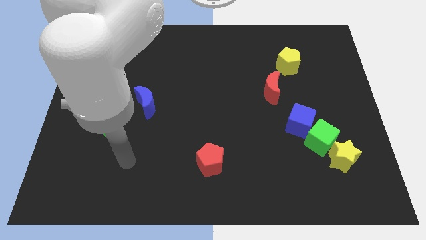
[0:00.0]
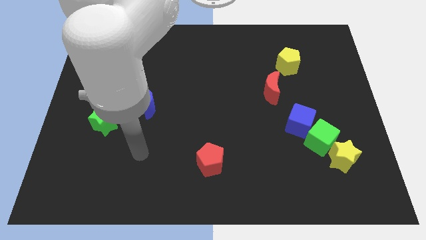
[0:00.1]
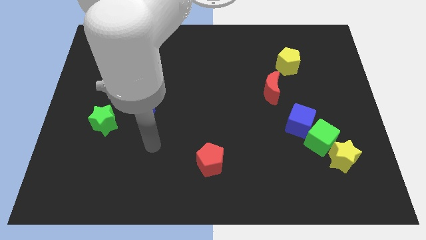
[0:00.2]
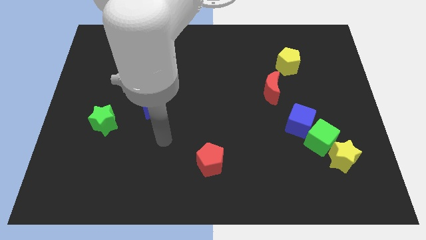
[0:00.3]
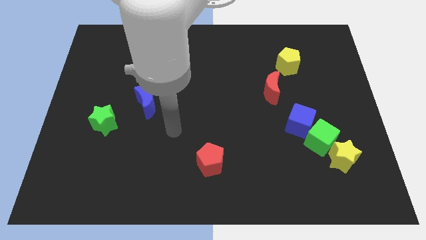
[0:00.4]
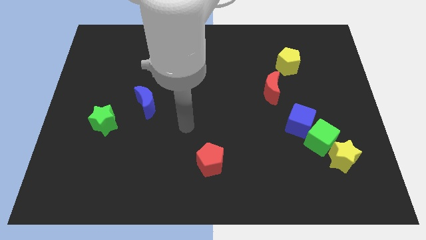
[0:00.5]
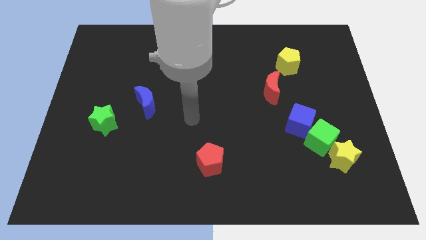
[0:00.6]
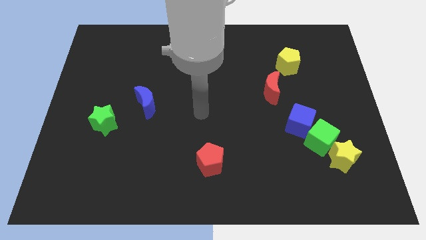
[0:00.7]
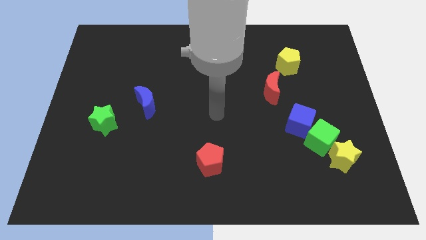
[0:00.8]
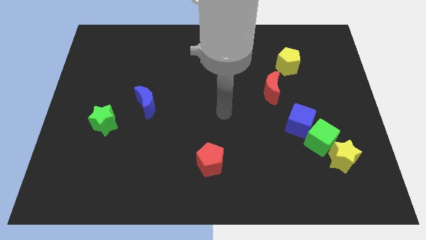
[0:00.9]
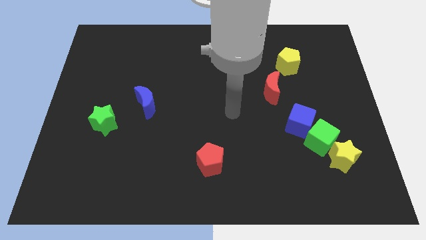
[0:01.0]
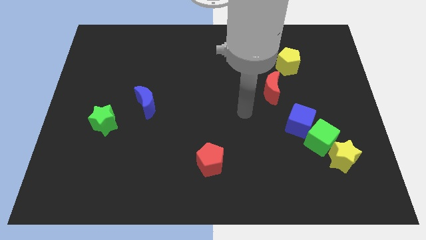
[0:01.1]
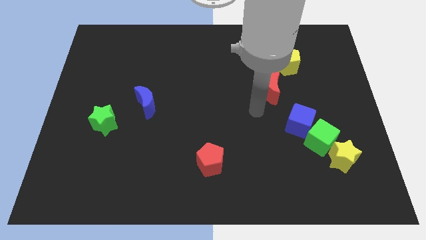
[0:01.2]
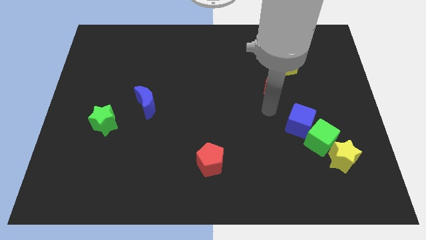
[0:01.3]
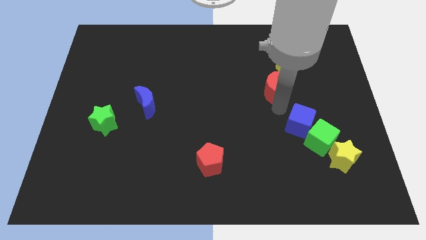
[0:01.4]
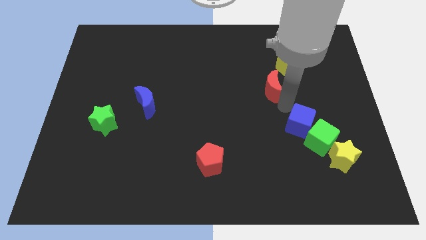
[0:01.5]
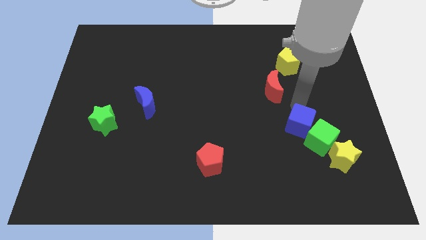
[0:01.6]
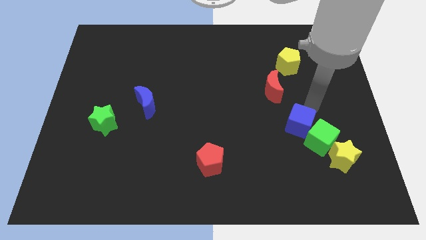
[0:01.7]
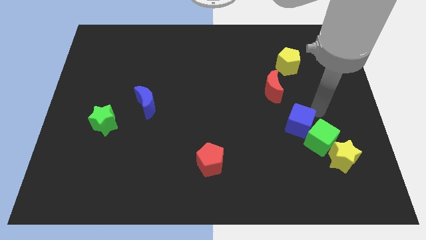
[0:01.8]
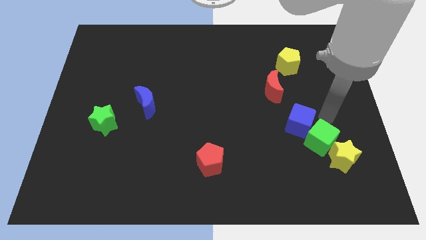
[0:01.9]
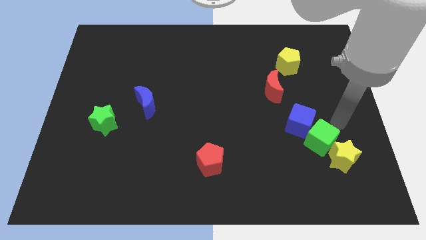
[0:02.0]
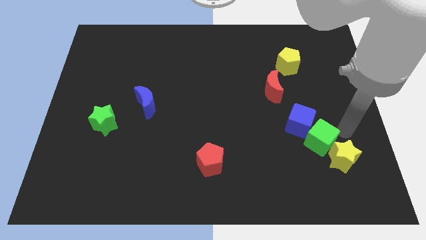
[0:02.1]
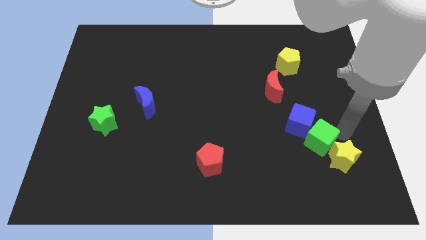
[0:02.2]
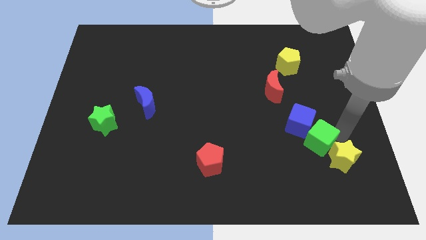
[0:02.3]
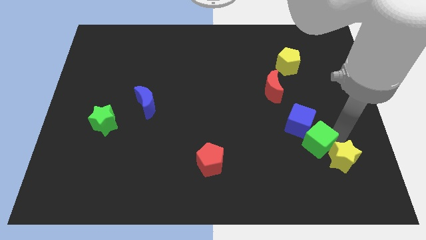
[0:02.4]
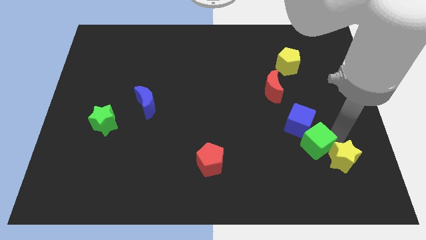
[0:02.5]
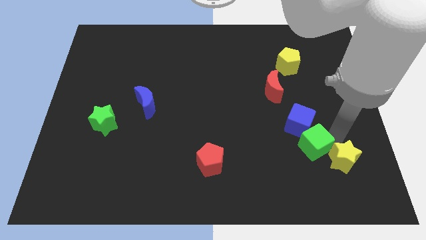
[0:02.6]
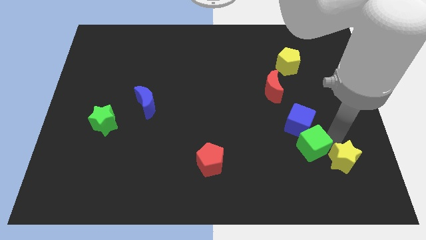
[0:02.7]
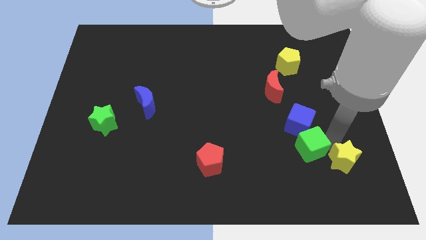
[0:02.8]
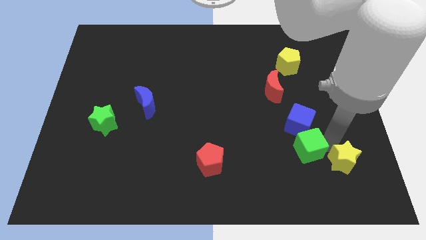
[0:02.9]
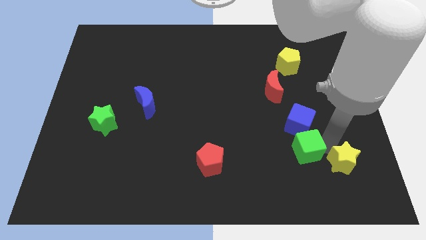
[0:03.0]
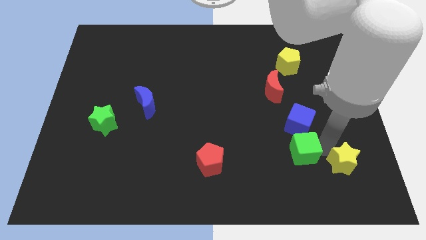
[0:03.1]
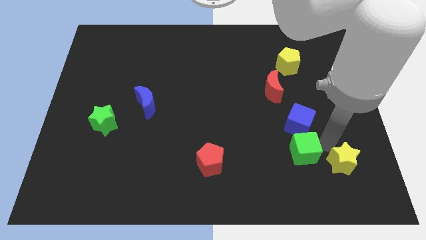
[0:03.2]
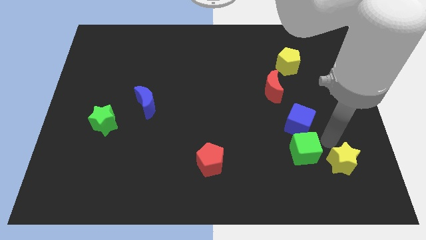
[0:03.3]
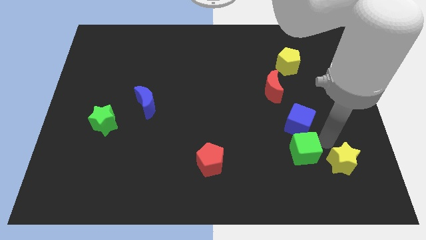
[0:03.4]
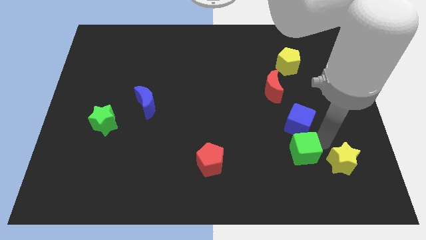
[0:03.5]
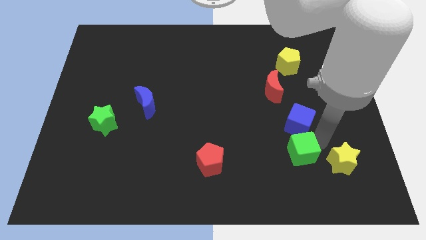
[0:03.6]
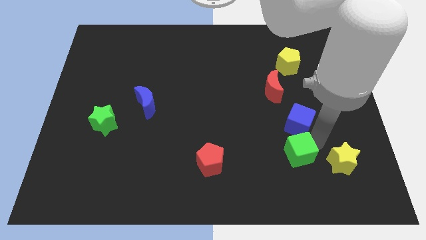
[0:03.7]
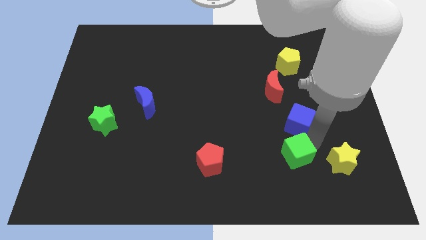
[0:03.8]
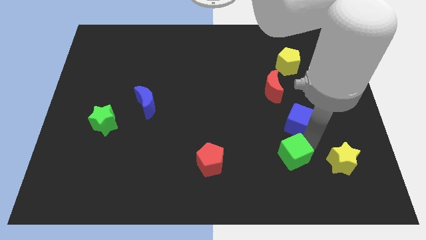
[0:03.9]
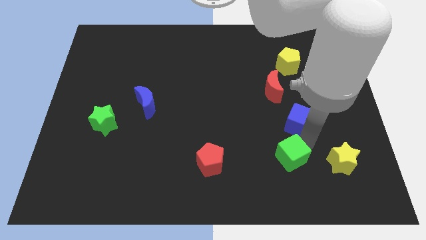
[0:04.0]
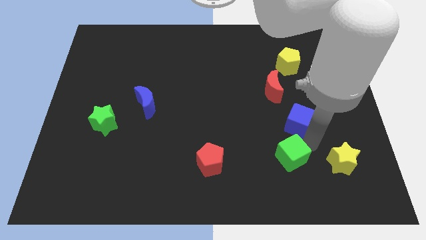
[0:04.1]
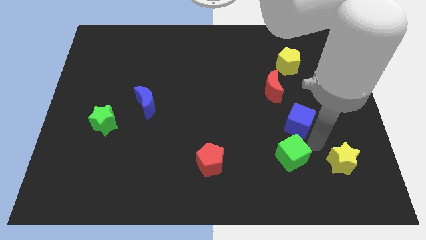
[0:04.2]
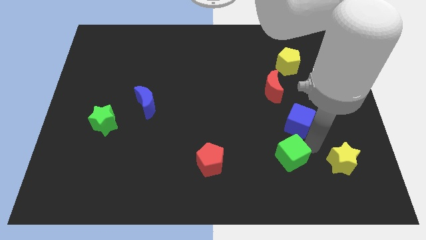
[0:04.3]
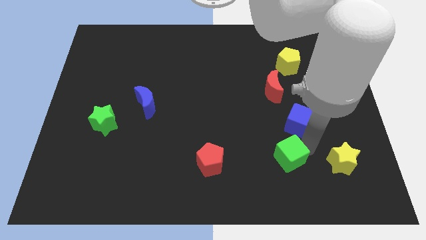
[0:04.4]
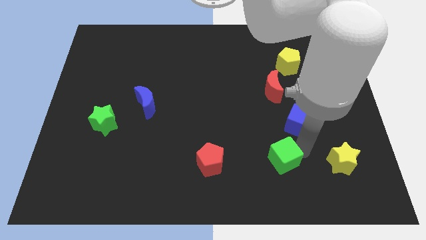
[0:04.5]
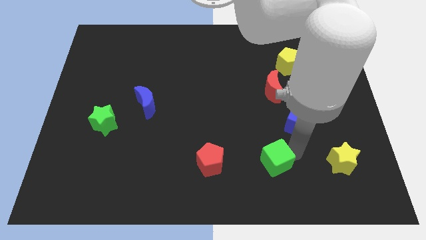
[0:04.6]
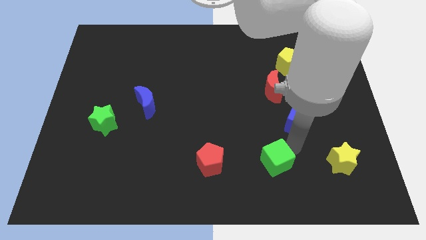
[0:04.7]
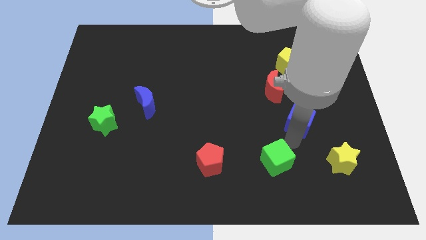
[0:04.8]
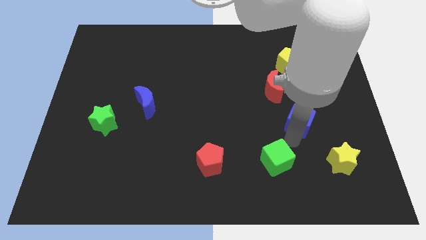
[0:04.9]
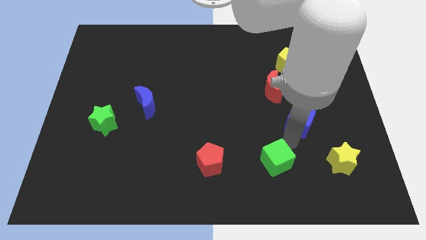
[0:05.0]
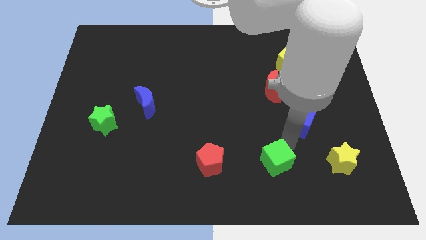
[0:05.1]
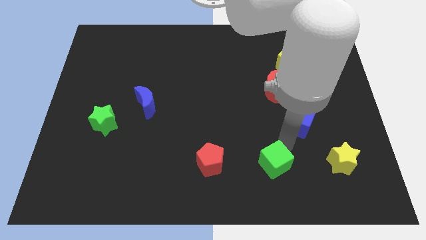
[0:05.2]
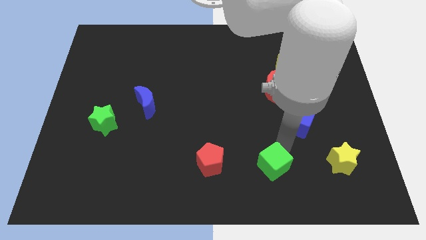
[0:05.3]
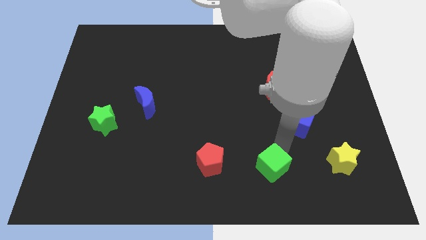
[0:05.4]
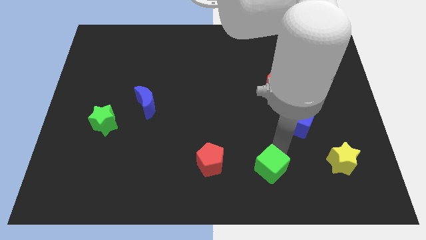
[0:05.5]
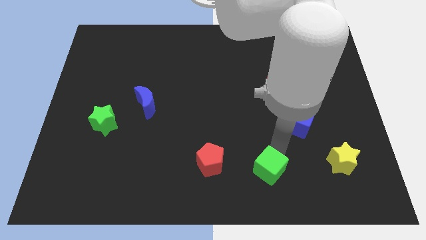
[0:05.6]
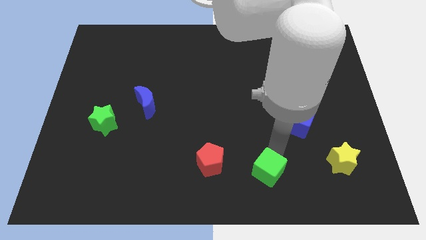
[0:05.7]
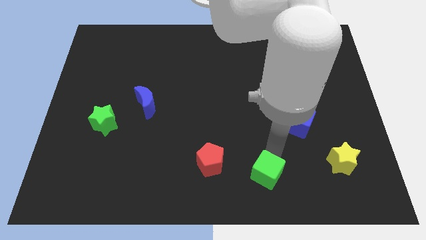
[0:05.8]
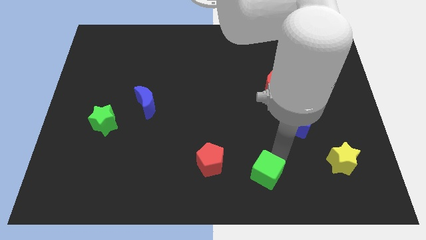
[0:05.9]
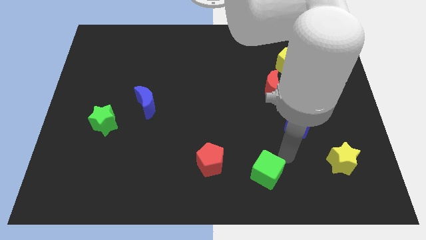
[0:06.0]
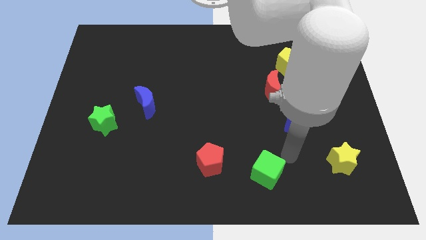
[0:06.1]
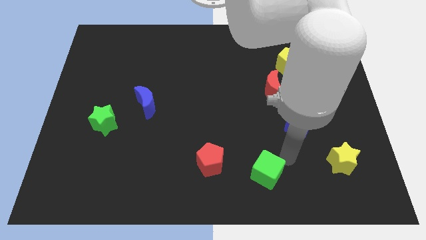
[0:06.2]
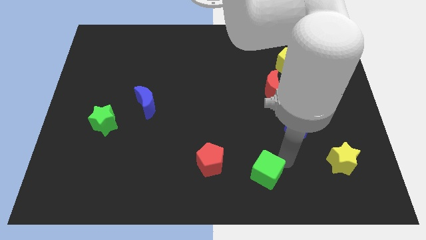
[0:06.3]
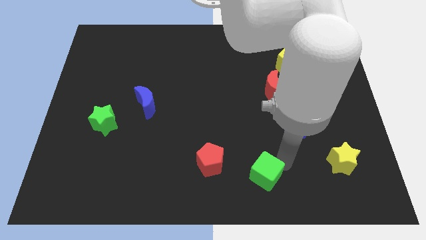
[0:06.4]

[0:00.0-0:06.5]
slide the green cube to the bottom side

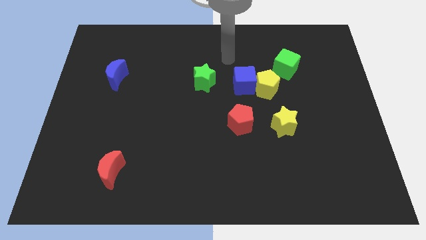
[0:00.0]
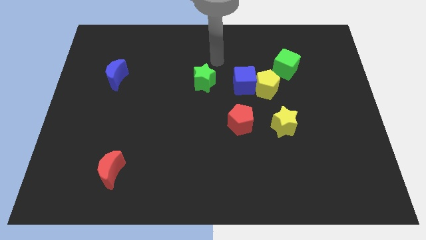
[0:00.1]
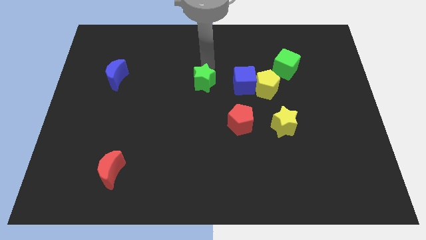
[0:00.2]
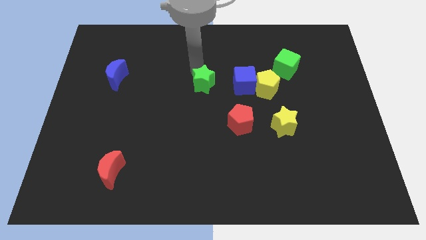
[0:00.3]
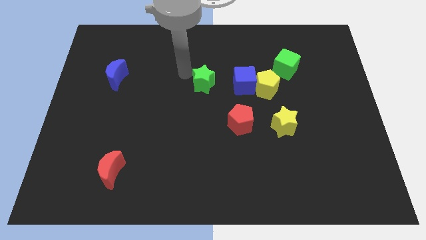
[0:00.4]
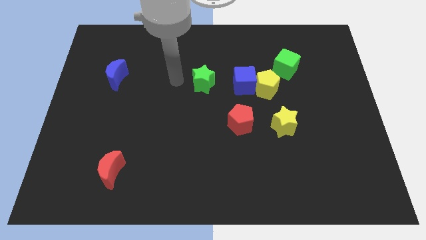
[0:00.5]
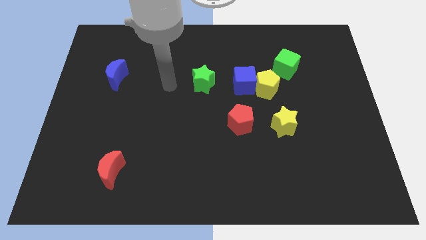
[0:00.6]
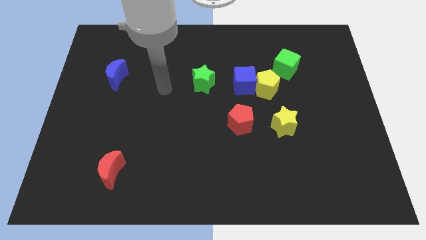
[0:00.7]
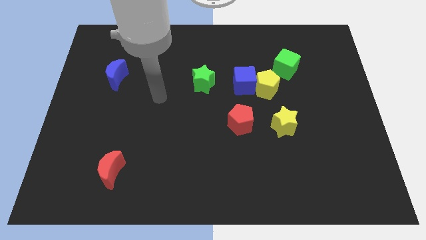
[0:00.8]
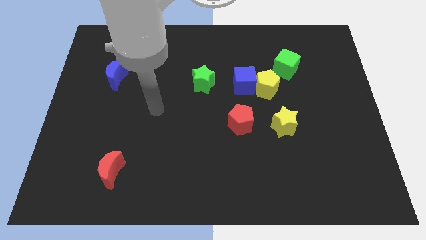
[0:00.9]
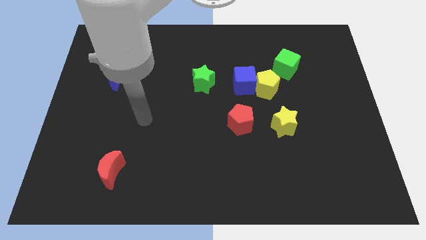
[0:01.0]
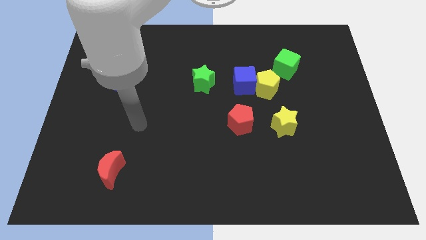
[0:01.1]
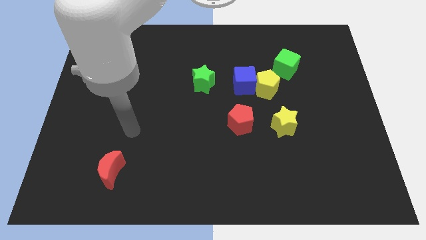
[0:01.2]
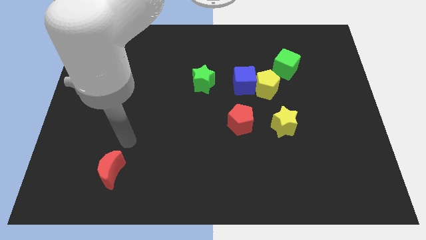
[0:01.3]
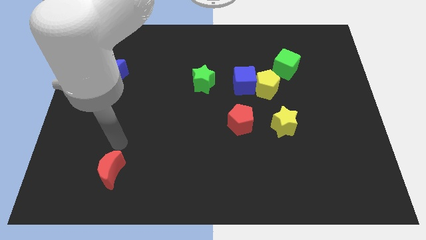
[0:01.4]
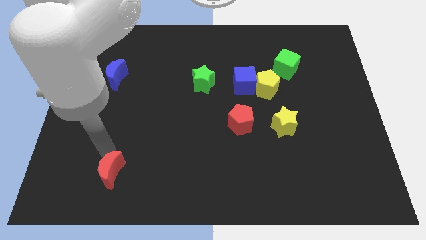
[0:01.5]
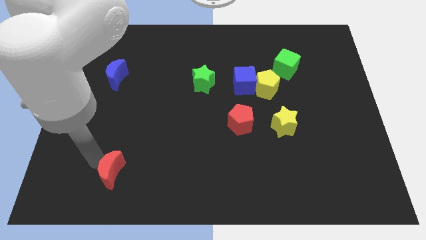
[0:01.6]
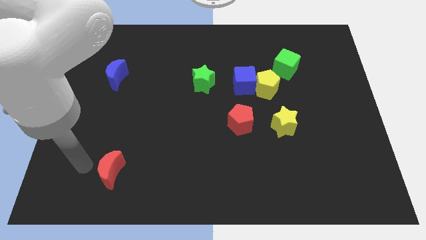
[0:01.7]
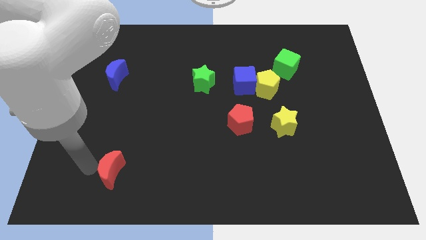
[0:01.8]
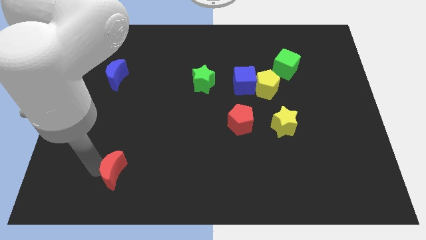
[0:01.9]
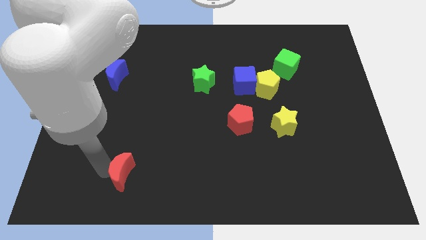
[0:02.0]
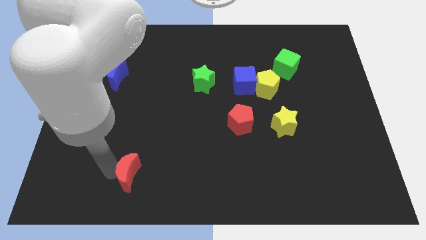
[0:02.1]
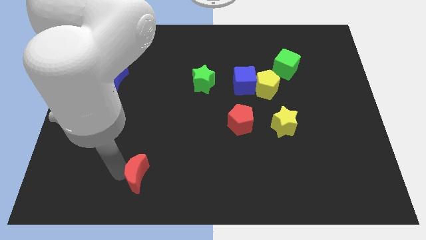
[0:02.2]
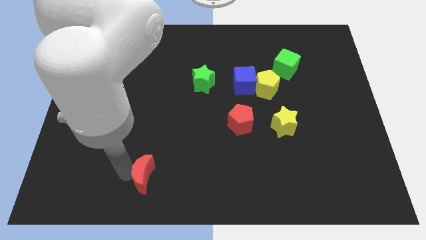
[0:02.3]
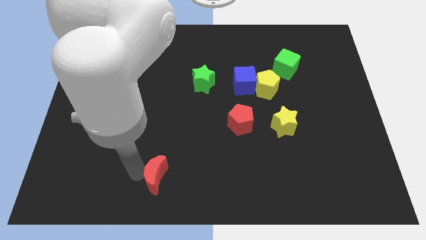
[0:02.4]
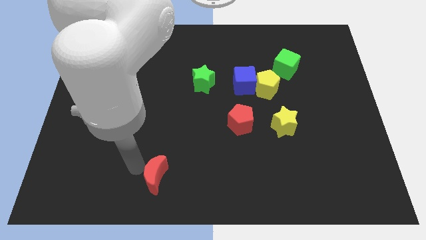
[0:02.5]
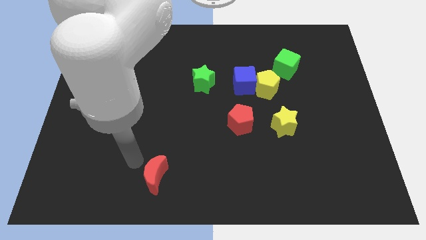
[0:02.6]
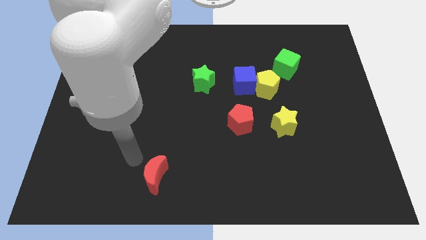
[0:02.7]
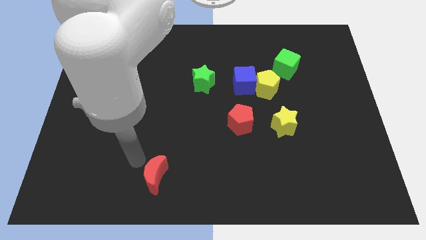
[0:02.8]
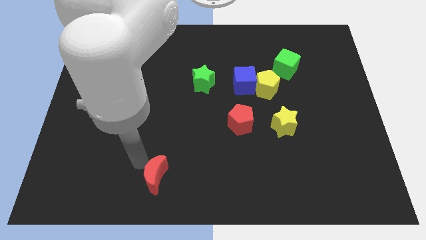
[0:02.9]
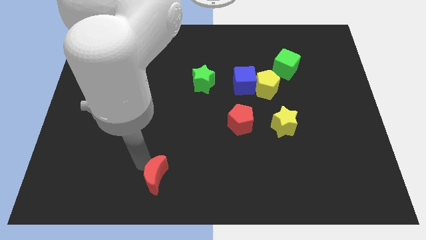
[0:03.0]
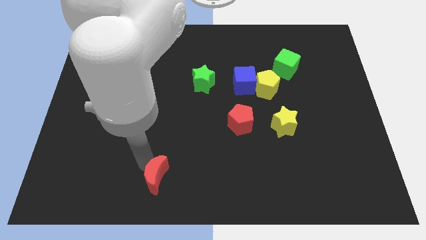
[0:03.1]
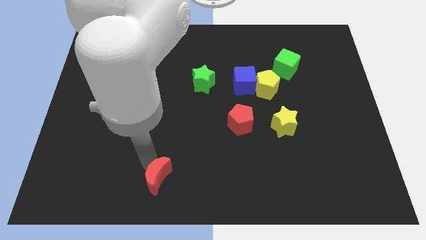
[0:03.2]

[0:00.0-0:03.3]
put the red moon to the bottom side
